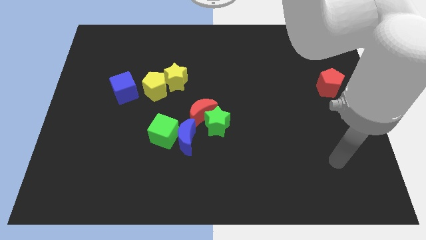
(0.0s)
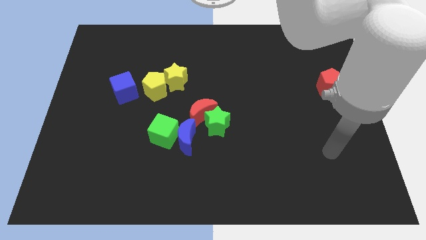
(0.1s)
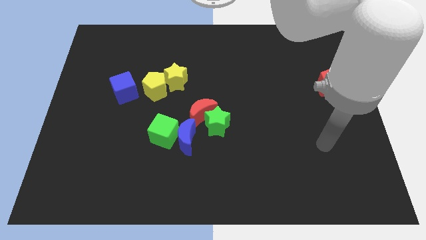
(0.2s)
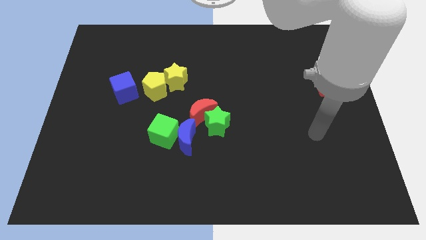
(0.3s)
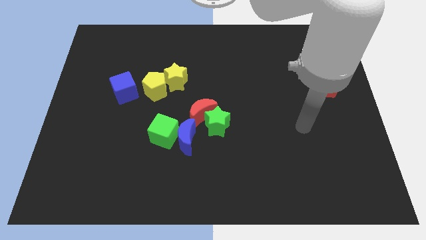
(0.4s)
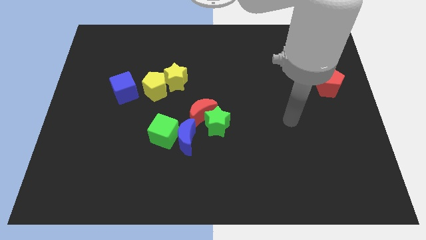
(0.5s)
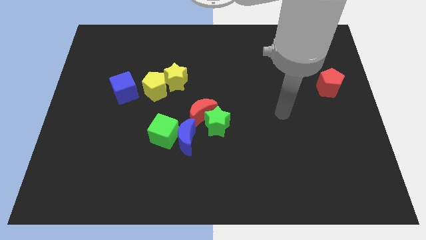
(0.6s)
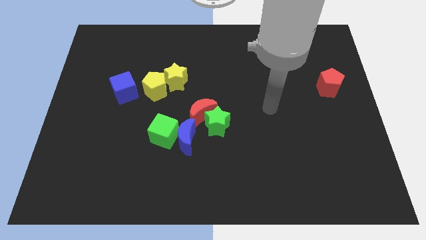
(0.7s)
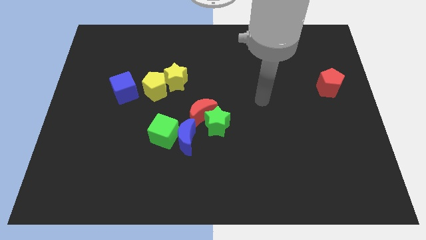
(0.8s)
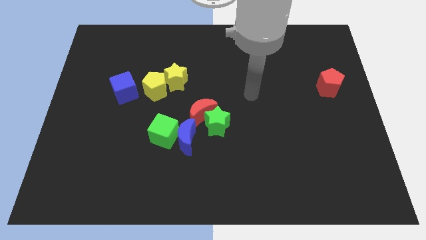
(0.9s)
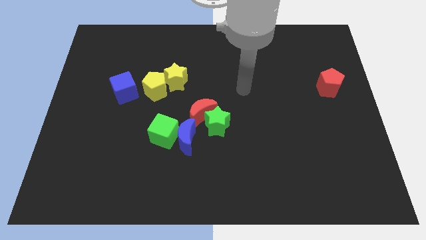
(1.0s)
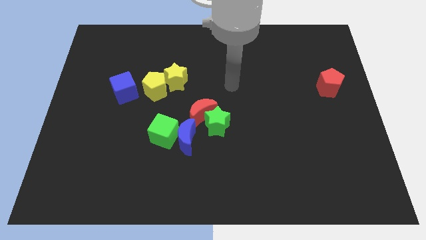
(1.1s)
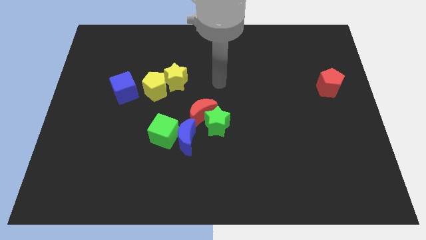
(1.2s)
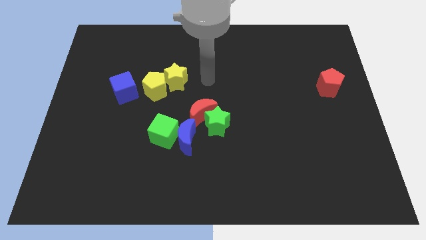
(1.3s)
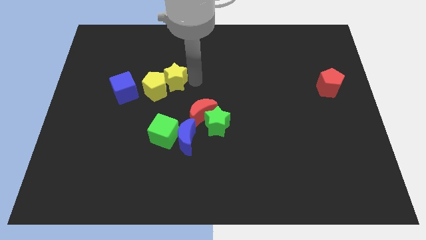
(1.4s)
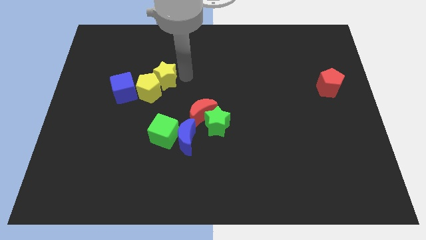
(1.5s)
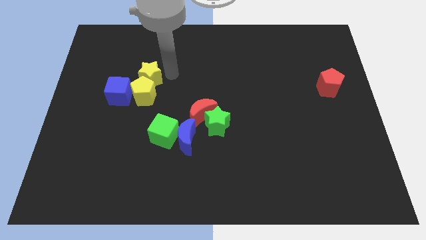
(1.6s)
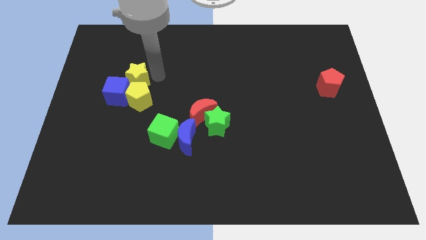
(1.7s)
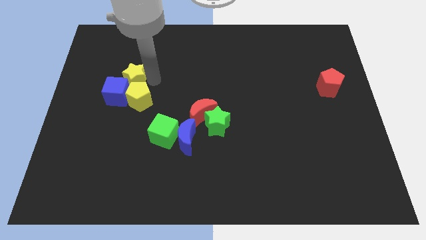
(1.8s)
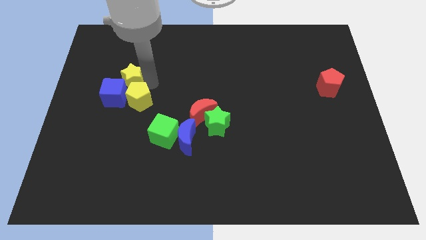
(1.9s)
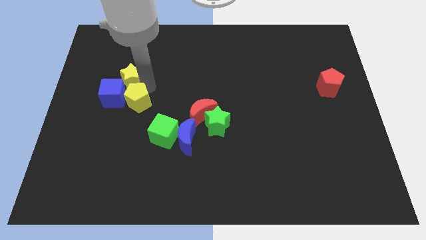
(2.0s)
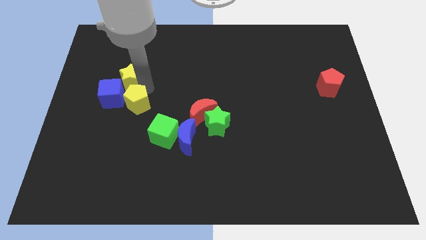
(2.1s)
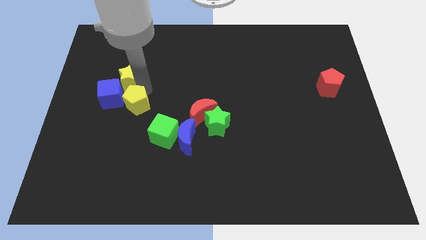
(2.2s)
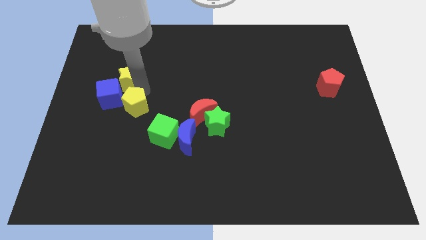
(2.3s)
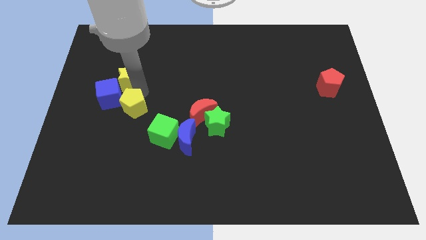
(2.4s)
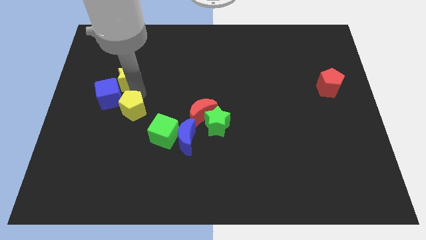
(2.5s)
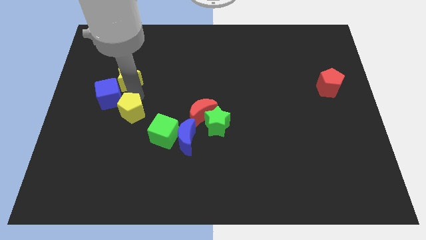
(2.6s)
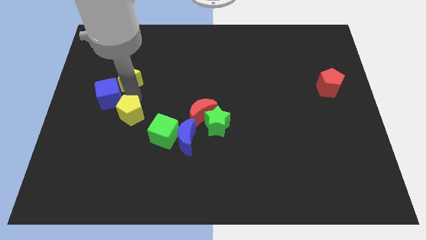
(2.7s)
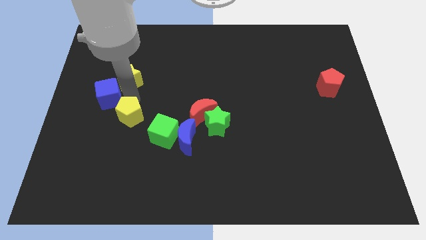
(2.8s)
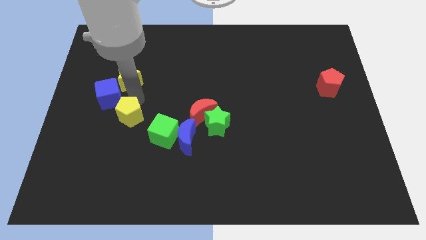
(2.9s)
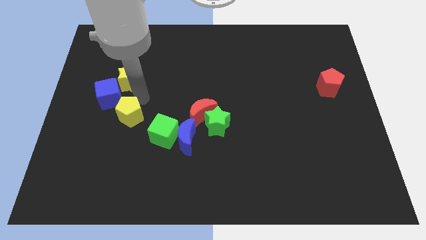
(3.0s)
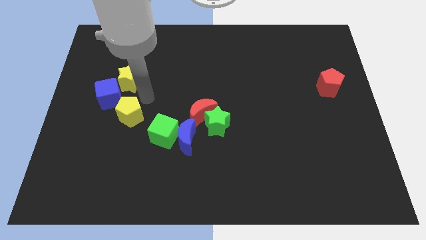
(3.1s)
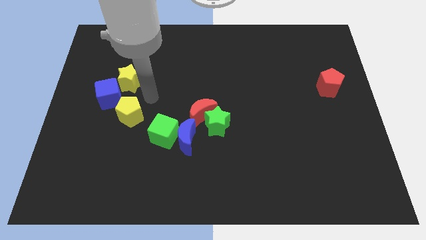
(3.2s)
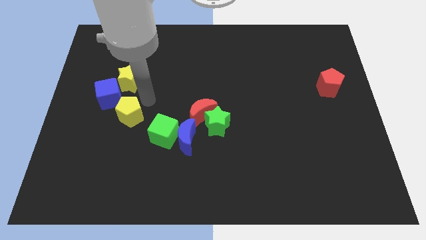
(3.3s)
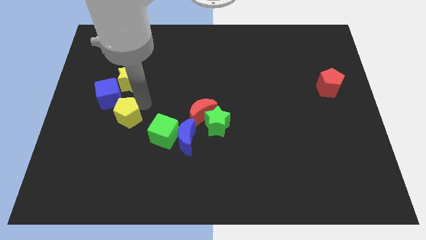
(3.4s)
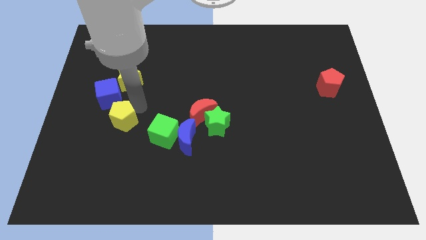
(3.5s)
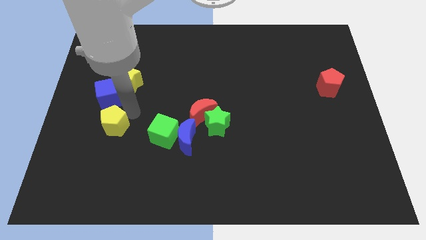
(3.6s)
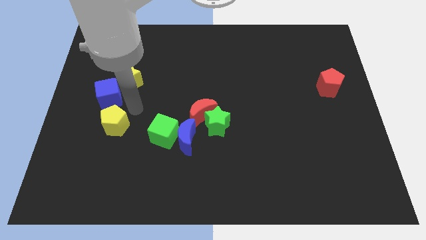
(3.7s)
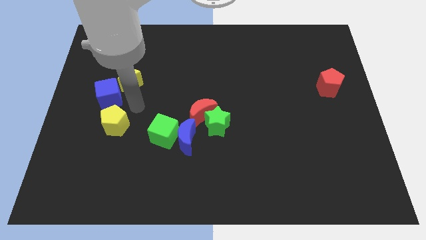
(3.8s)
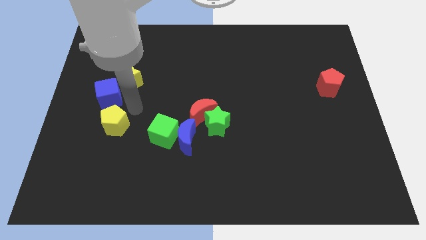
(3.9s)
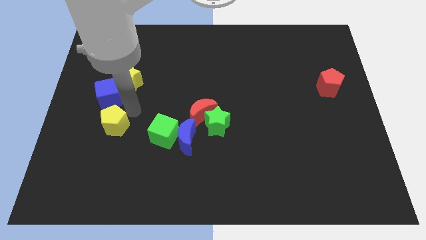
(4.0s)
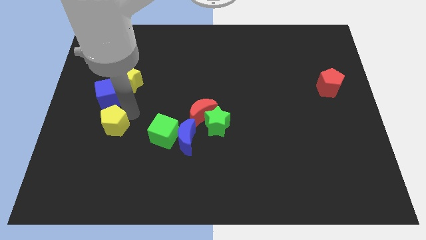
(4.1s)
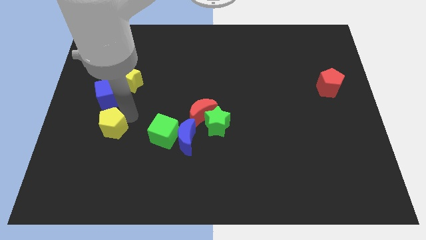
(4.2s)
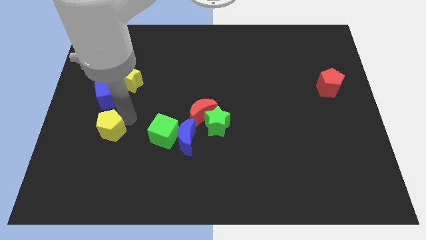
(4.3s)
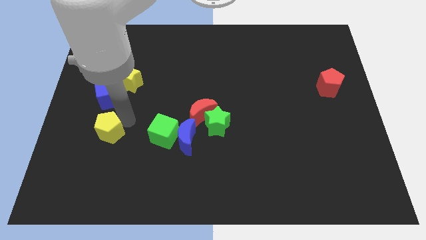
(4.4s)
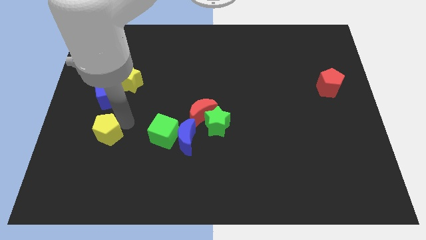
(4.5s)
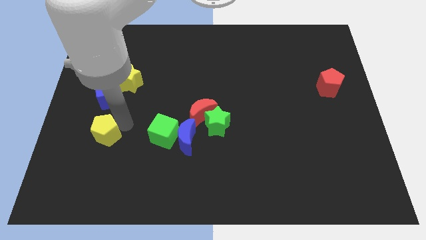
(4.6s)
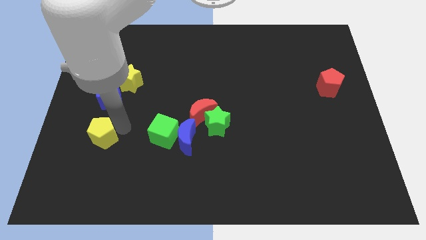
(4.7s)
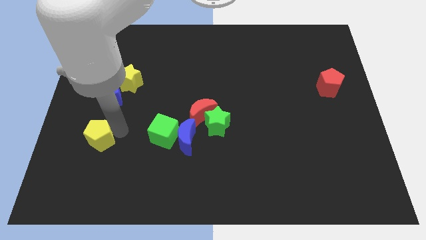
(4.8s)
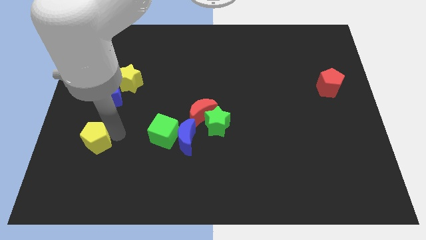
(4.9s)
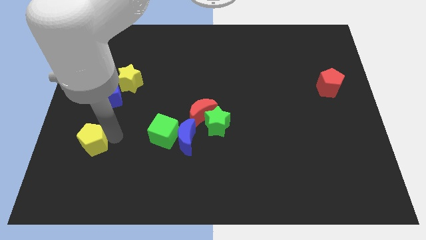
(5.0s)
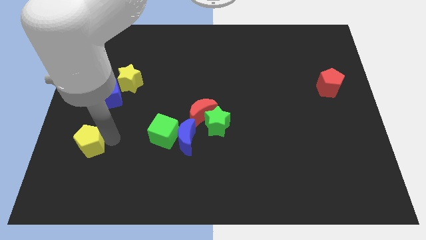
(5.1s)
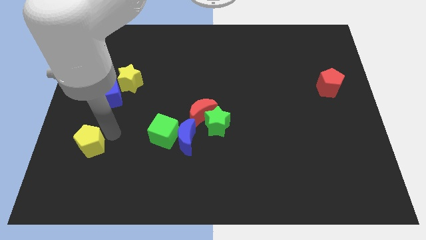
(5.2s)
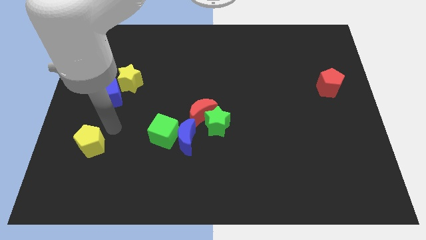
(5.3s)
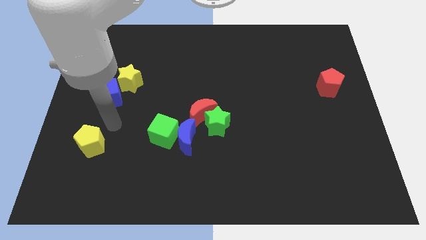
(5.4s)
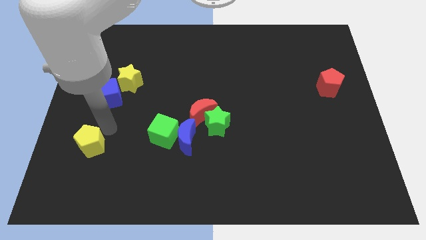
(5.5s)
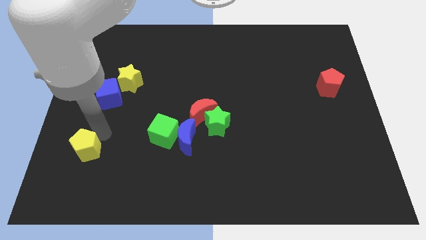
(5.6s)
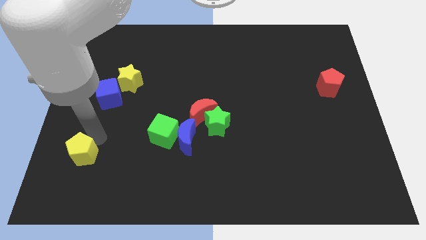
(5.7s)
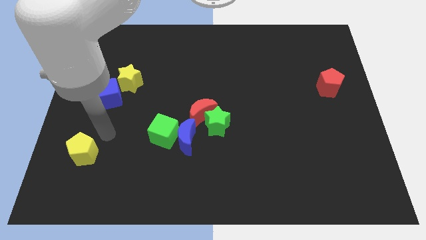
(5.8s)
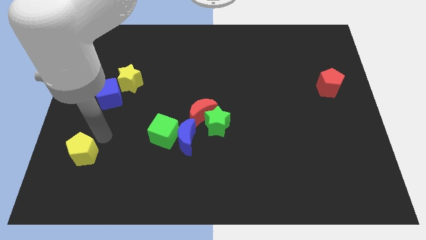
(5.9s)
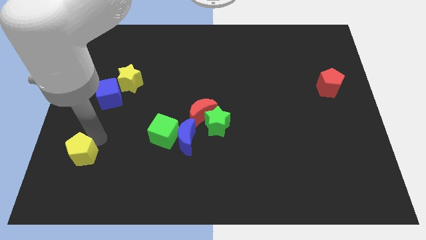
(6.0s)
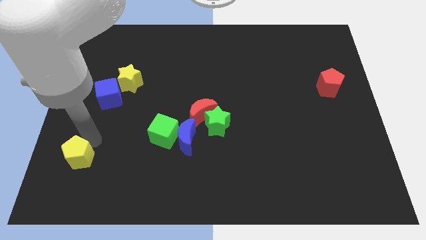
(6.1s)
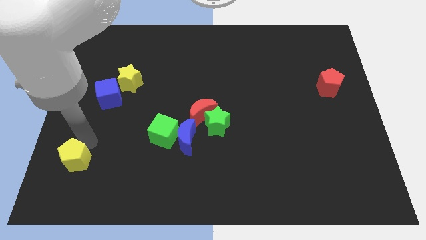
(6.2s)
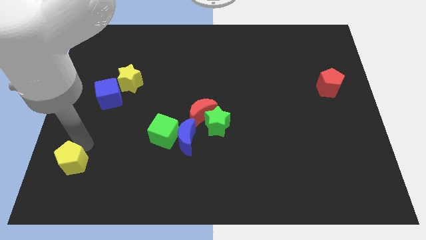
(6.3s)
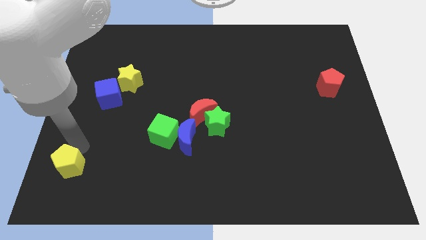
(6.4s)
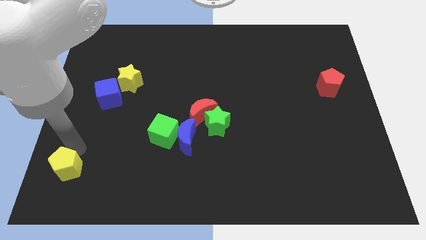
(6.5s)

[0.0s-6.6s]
slide the yellow pentagon to the bottom left of the board
